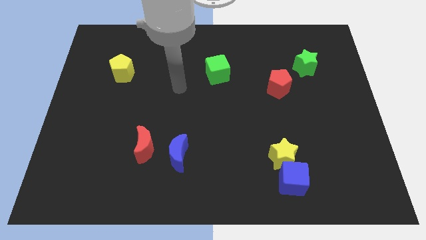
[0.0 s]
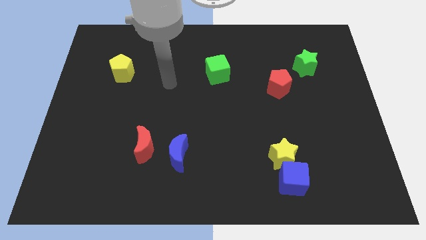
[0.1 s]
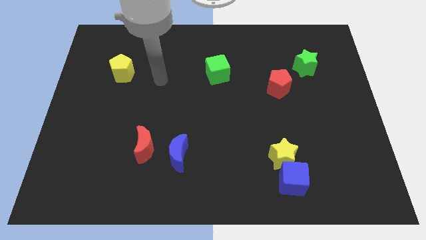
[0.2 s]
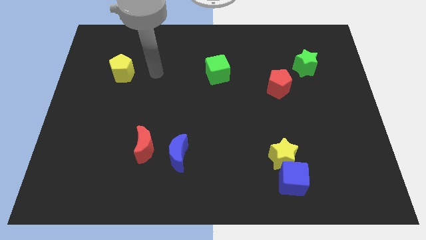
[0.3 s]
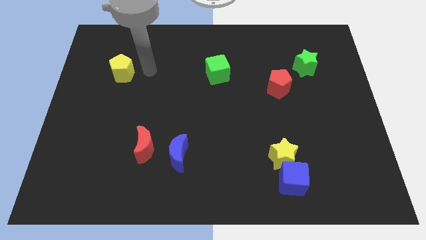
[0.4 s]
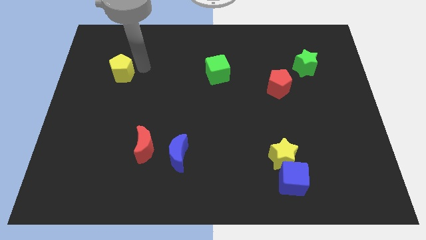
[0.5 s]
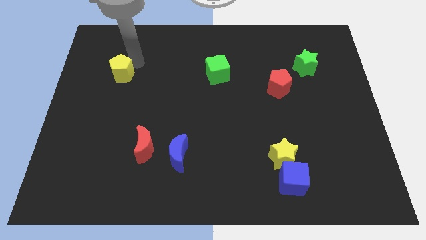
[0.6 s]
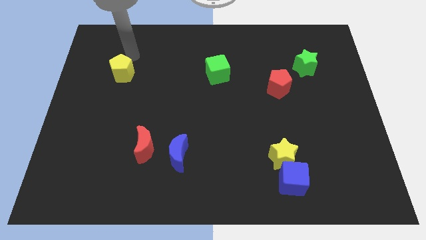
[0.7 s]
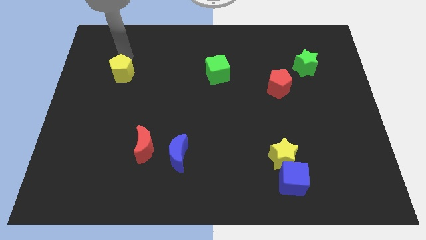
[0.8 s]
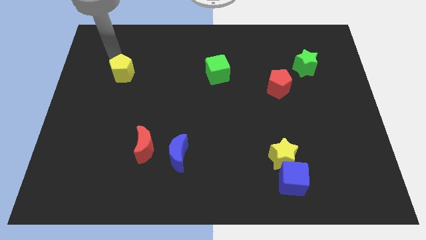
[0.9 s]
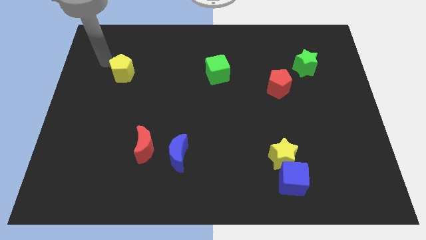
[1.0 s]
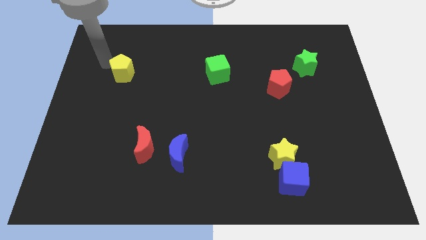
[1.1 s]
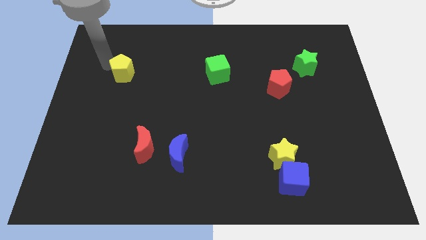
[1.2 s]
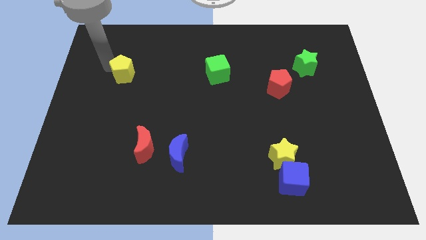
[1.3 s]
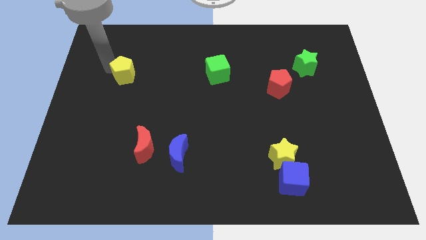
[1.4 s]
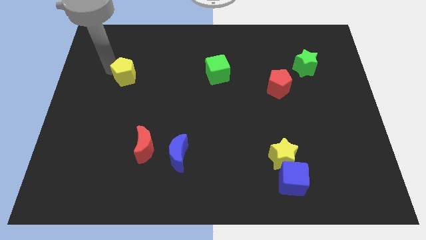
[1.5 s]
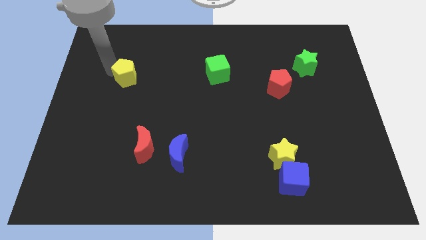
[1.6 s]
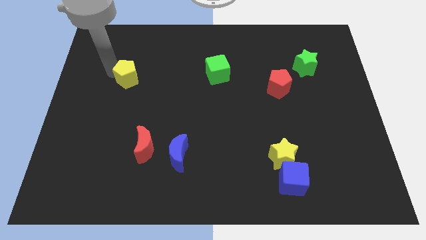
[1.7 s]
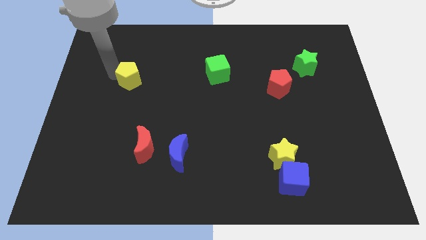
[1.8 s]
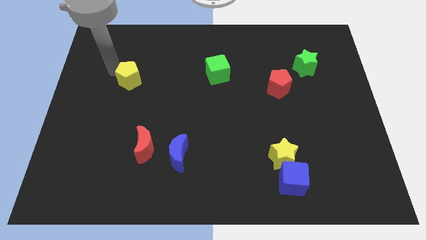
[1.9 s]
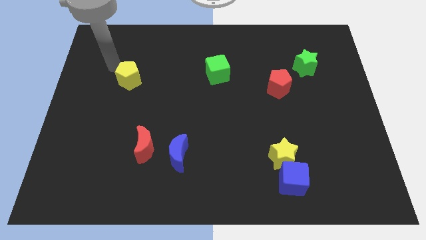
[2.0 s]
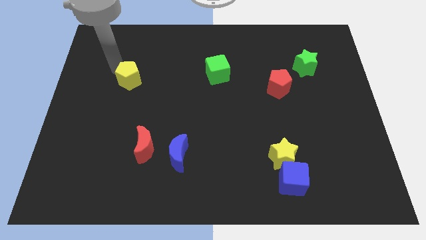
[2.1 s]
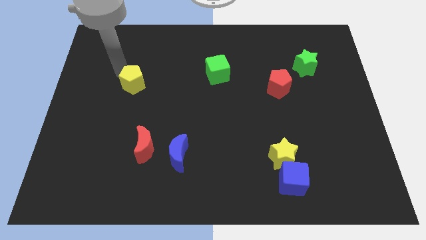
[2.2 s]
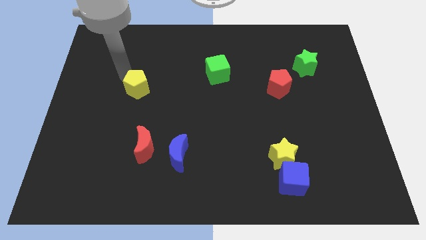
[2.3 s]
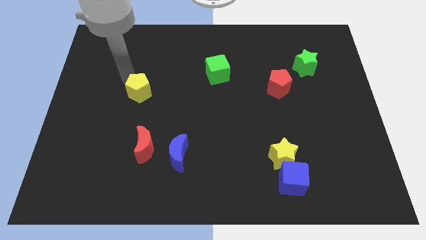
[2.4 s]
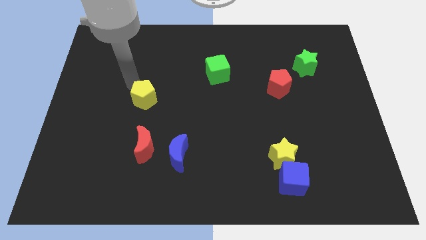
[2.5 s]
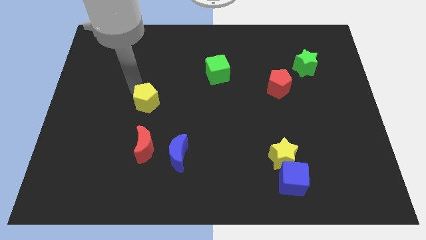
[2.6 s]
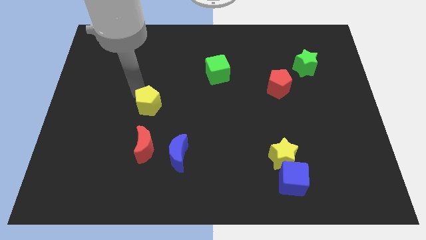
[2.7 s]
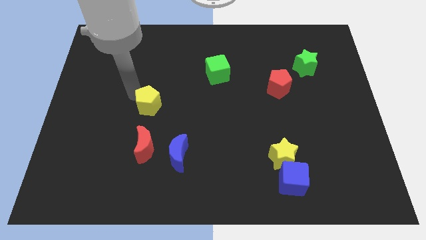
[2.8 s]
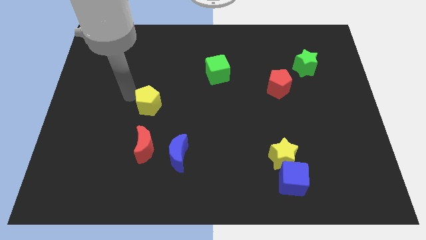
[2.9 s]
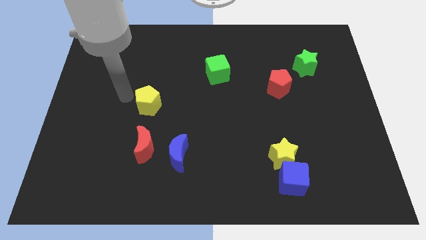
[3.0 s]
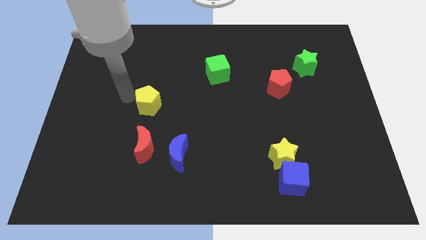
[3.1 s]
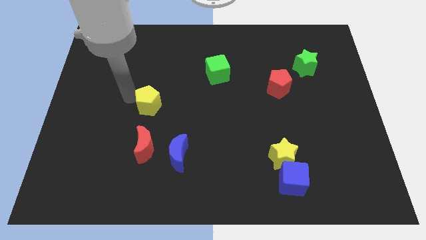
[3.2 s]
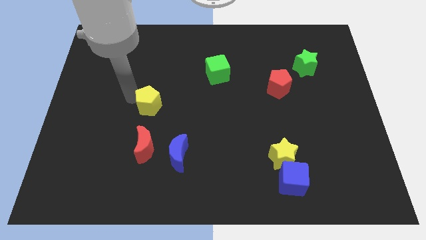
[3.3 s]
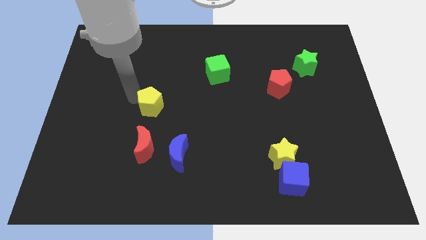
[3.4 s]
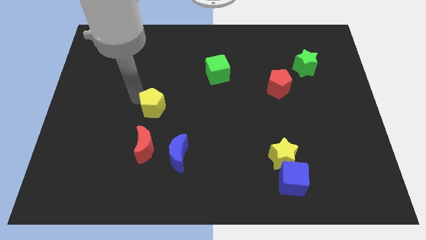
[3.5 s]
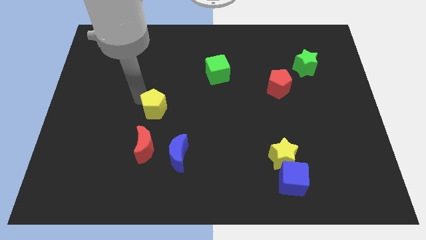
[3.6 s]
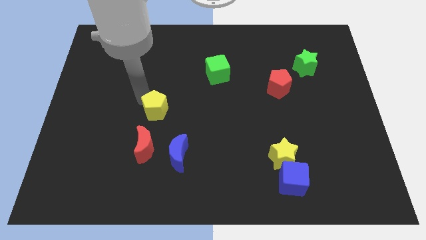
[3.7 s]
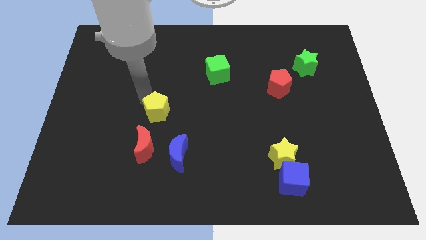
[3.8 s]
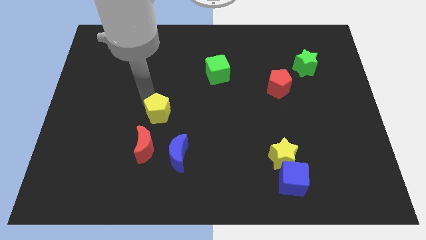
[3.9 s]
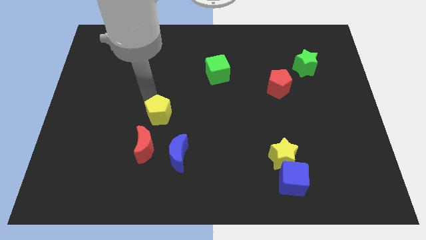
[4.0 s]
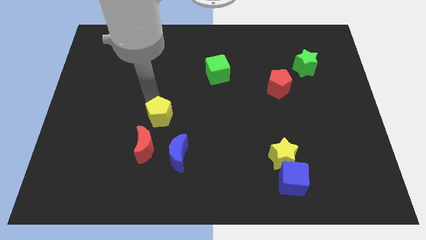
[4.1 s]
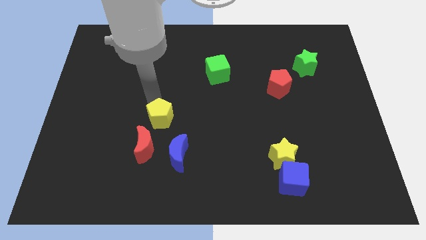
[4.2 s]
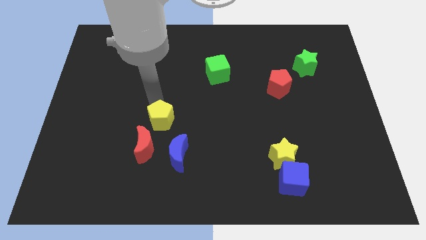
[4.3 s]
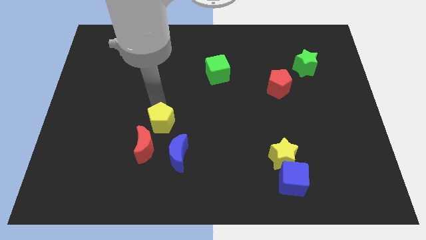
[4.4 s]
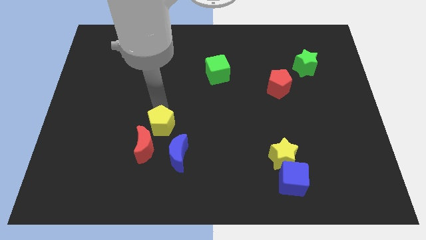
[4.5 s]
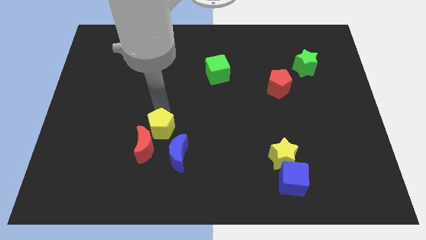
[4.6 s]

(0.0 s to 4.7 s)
move the yellow pentagon diagonally downwards and to the right

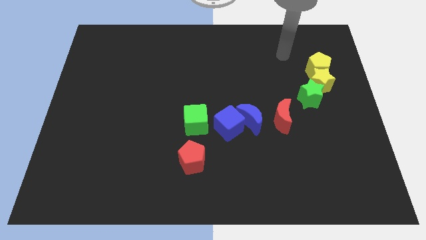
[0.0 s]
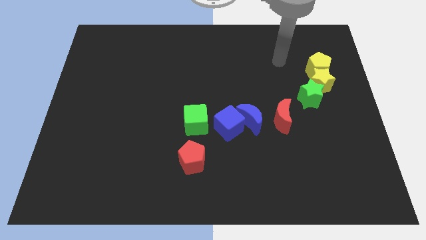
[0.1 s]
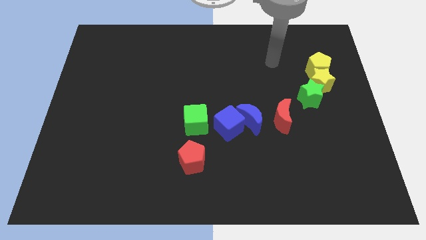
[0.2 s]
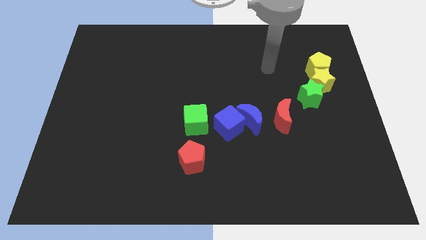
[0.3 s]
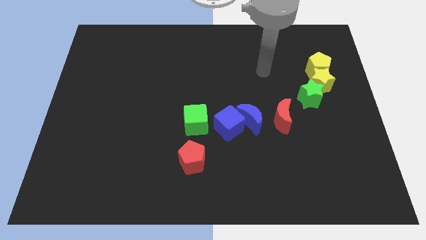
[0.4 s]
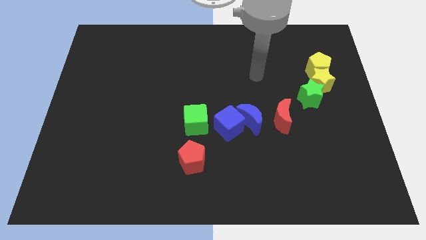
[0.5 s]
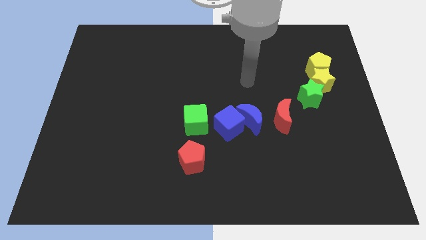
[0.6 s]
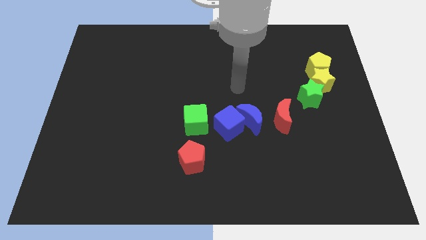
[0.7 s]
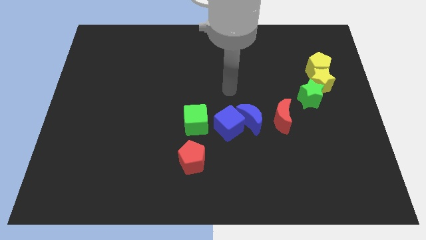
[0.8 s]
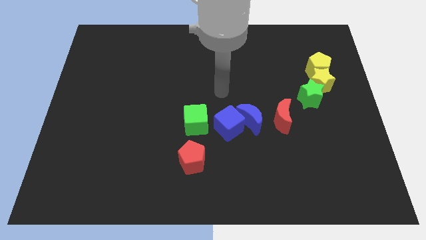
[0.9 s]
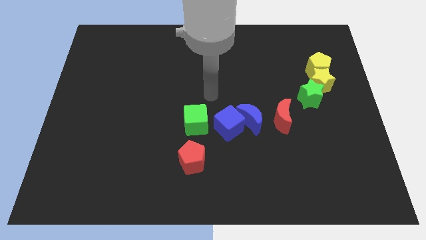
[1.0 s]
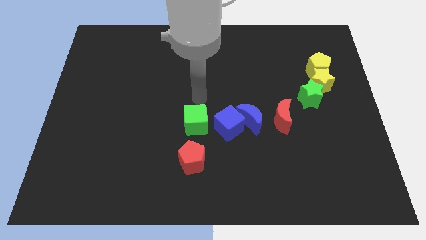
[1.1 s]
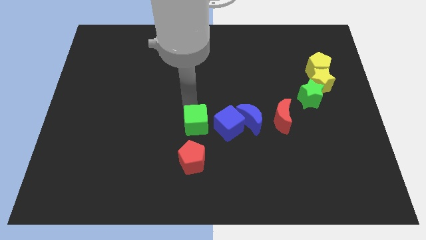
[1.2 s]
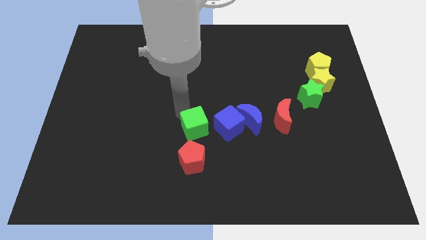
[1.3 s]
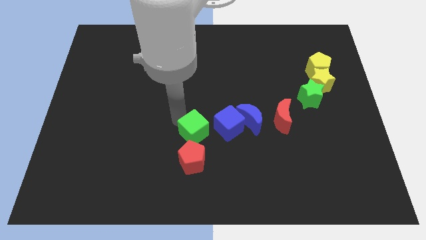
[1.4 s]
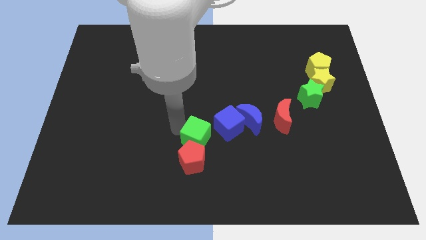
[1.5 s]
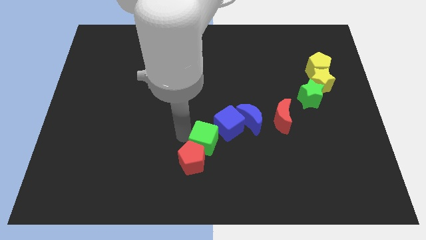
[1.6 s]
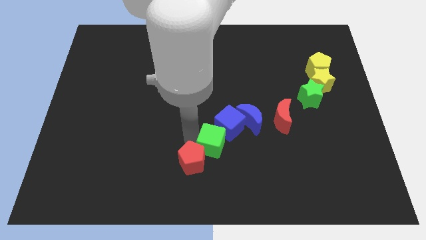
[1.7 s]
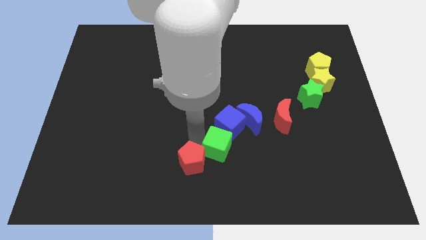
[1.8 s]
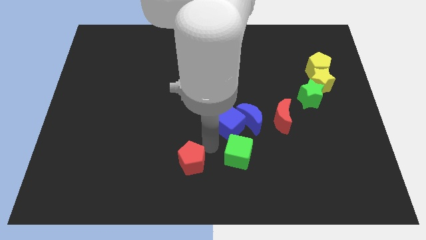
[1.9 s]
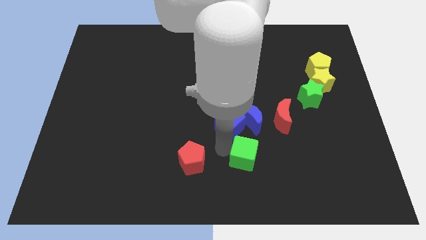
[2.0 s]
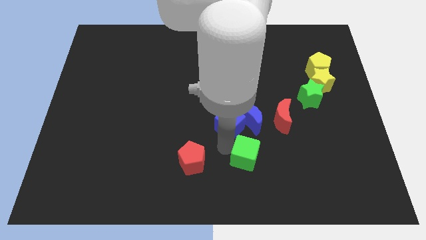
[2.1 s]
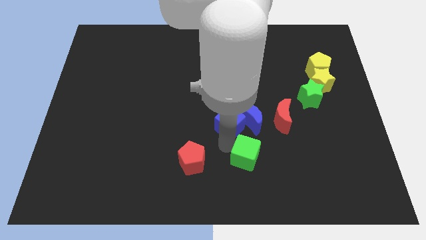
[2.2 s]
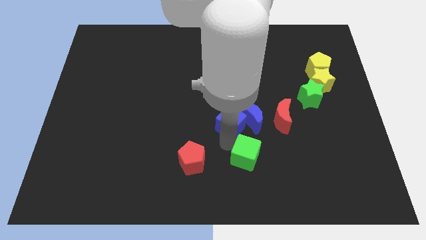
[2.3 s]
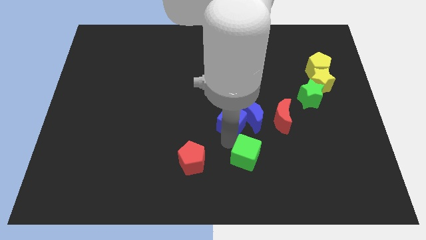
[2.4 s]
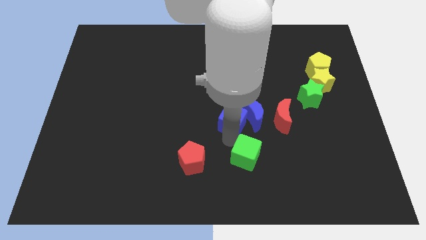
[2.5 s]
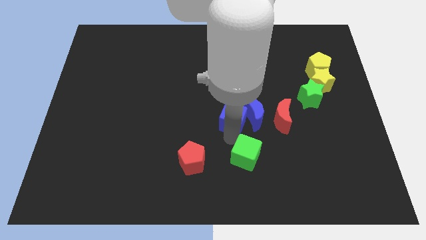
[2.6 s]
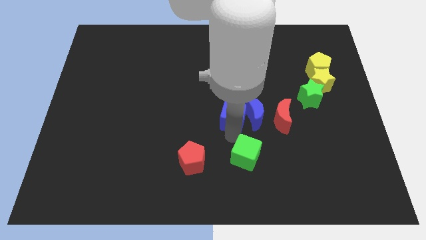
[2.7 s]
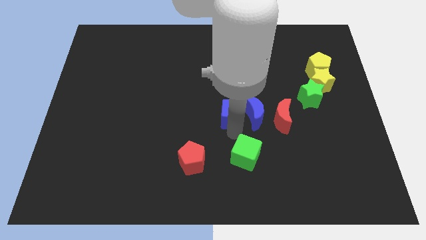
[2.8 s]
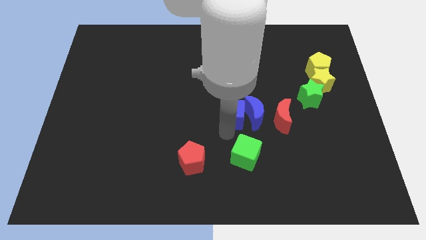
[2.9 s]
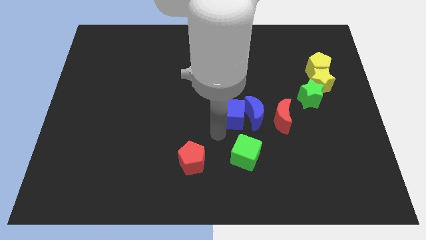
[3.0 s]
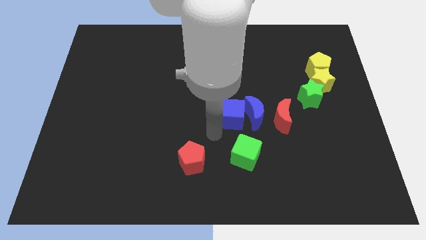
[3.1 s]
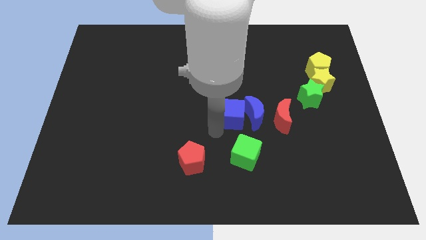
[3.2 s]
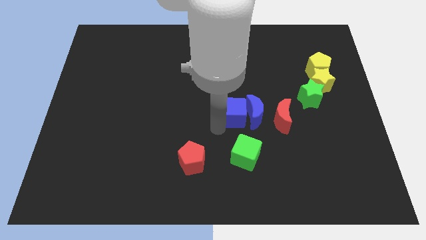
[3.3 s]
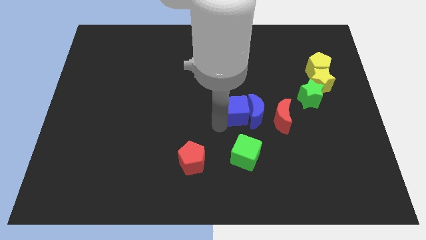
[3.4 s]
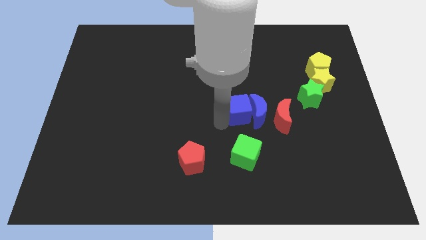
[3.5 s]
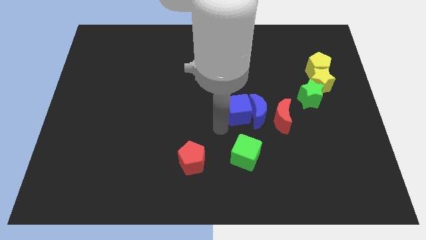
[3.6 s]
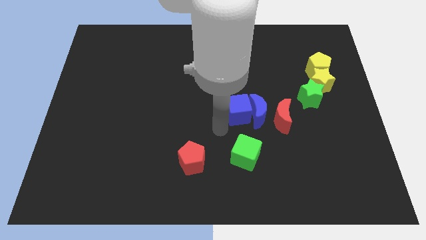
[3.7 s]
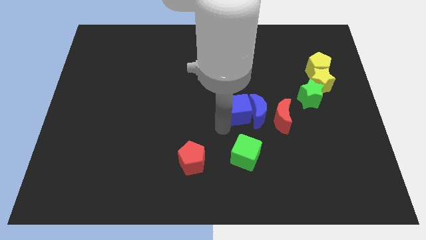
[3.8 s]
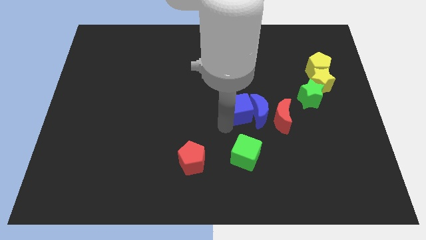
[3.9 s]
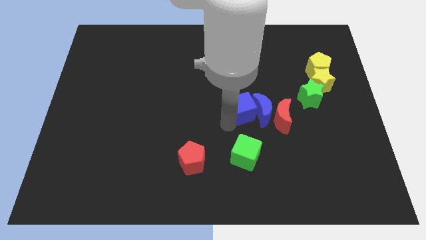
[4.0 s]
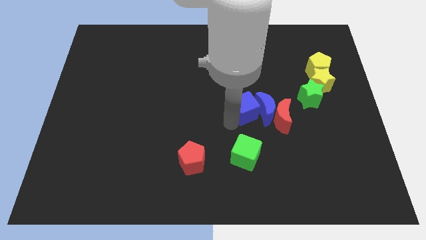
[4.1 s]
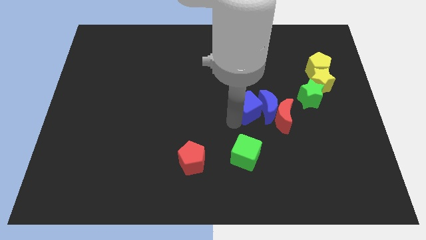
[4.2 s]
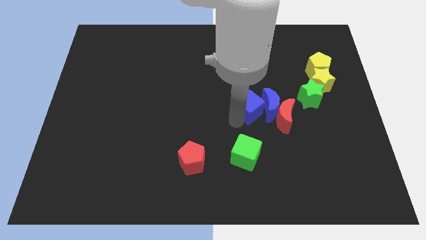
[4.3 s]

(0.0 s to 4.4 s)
slightly move the blue cube upwards and then right
